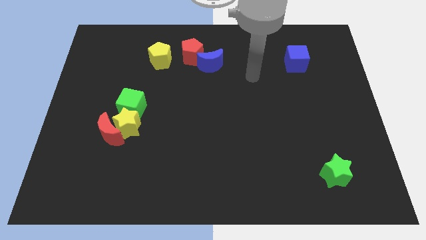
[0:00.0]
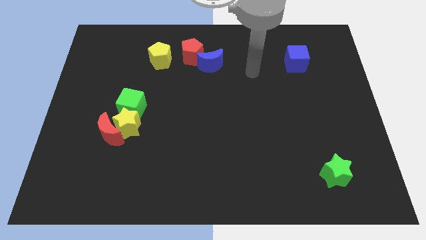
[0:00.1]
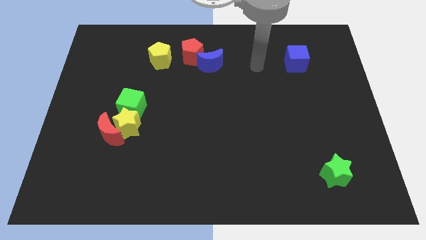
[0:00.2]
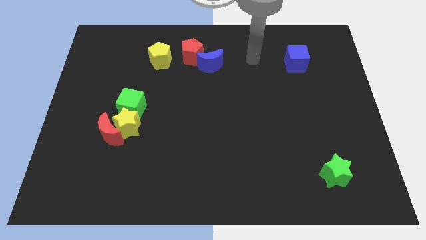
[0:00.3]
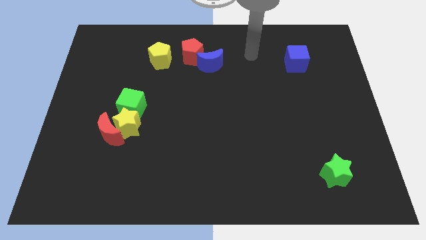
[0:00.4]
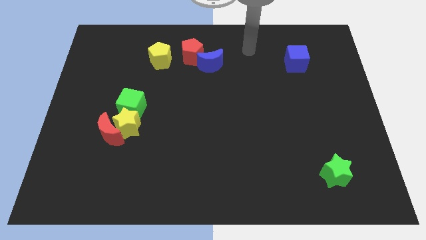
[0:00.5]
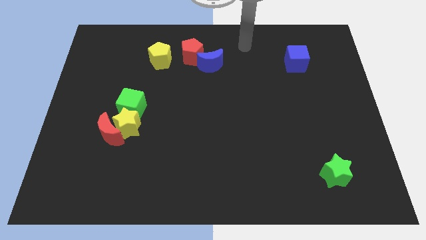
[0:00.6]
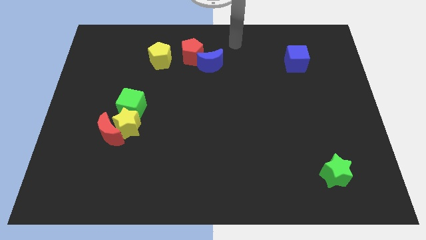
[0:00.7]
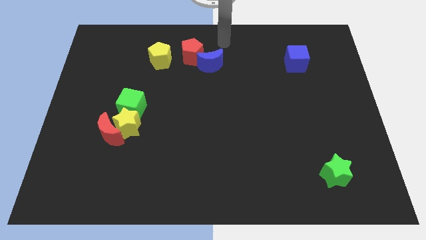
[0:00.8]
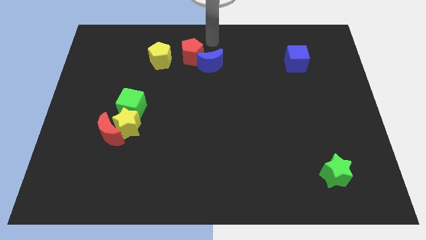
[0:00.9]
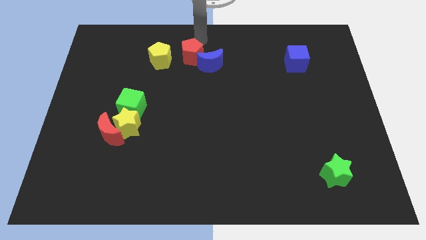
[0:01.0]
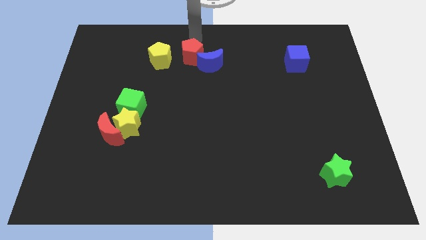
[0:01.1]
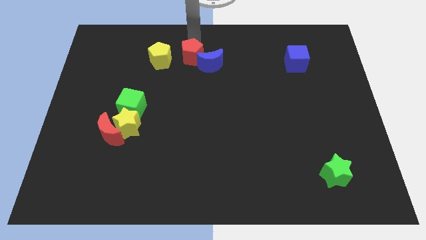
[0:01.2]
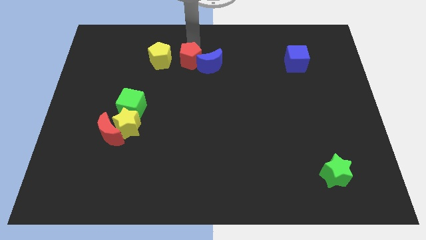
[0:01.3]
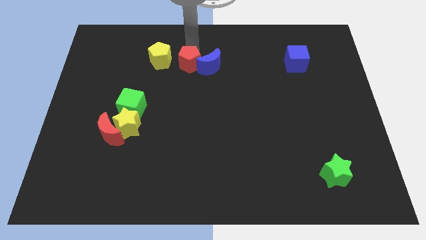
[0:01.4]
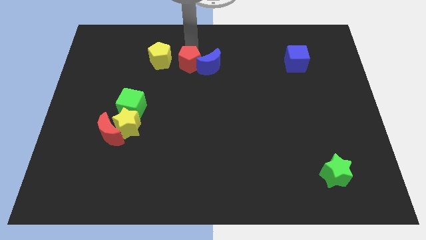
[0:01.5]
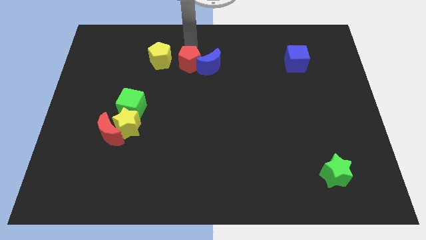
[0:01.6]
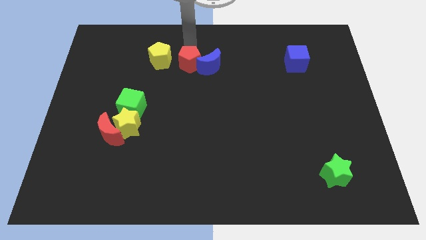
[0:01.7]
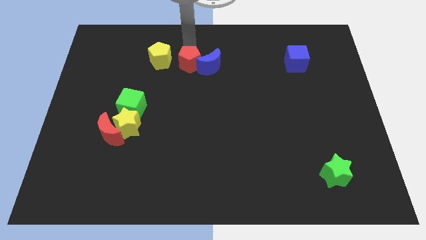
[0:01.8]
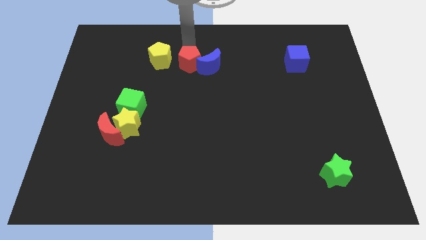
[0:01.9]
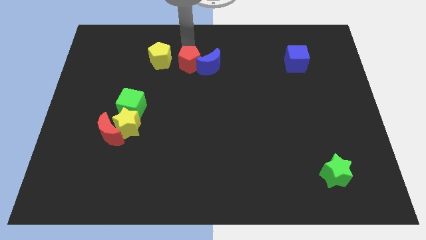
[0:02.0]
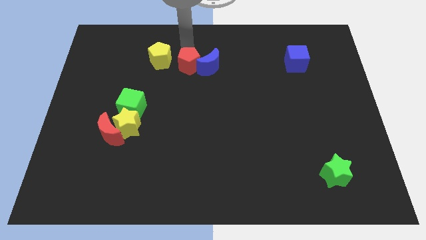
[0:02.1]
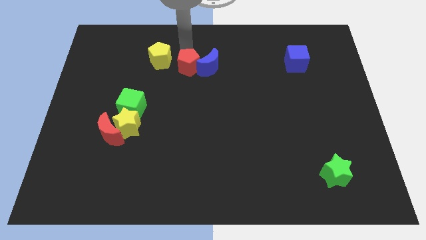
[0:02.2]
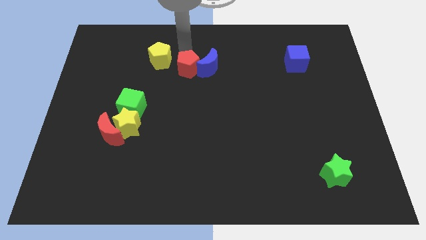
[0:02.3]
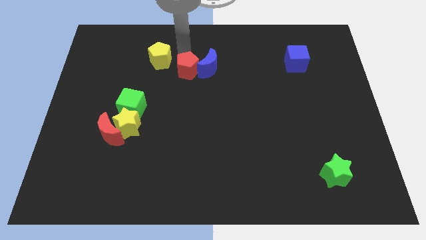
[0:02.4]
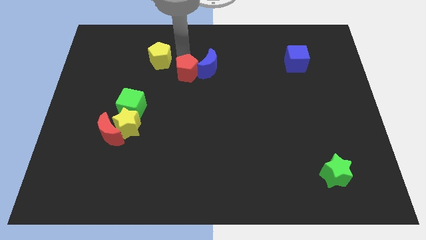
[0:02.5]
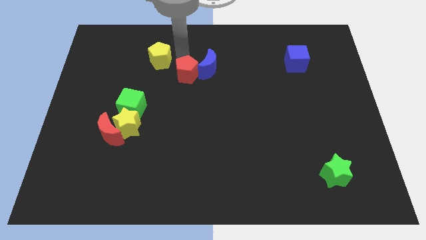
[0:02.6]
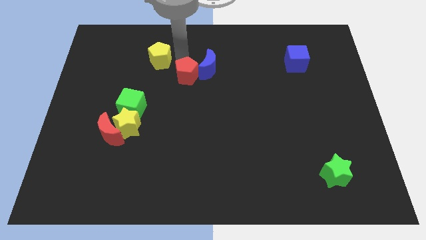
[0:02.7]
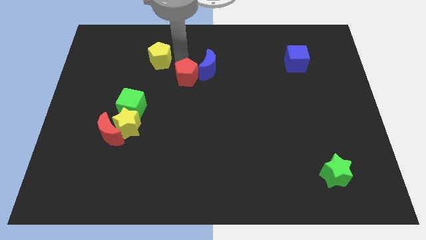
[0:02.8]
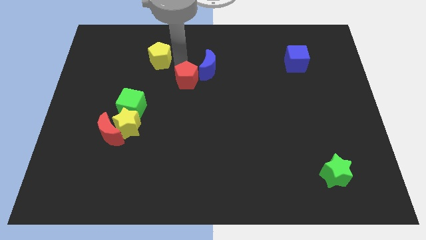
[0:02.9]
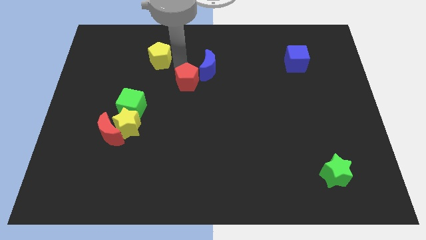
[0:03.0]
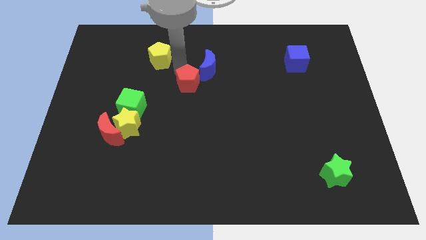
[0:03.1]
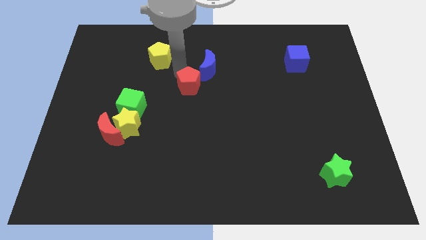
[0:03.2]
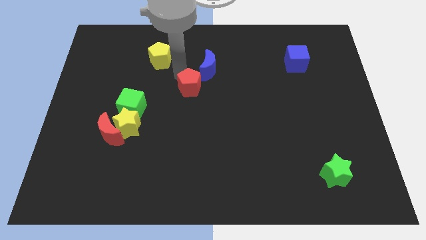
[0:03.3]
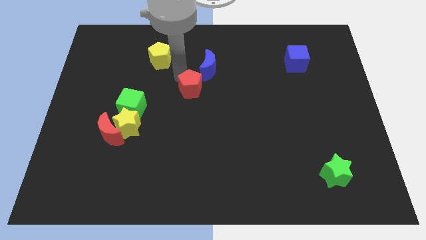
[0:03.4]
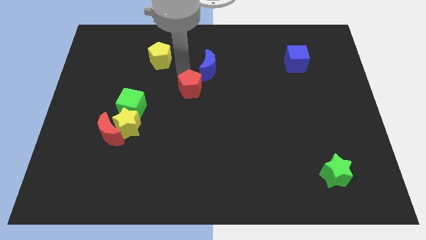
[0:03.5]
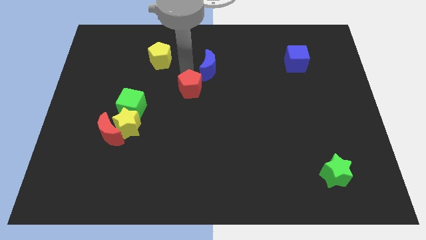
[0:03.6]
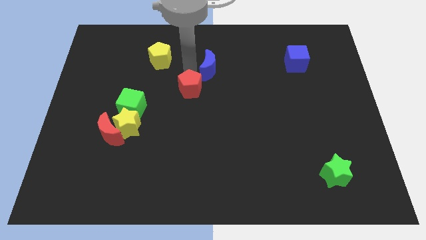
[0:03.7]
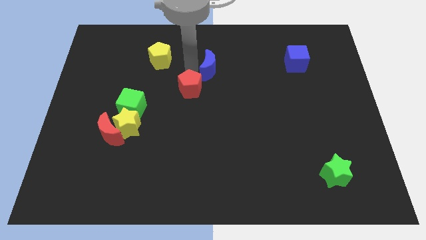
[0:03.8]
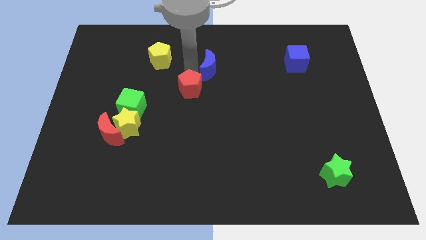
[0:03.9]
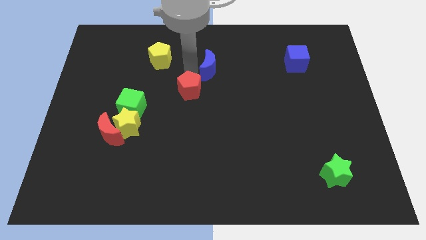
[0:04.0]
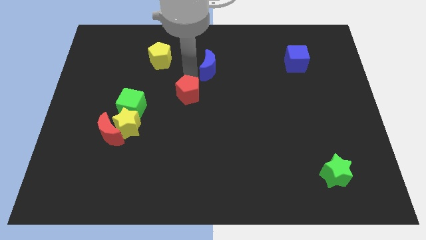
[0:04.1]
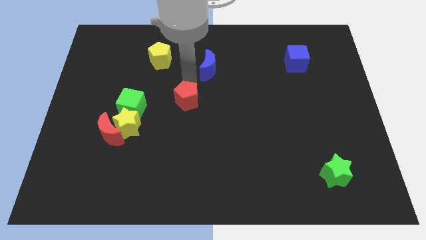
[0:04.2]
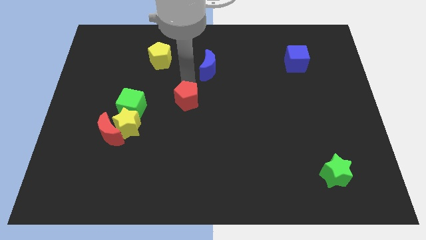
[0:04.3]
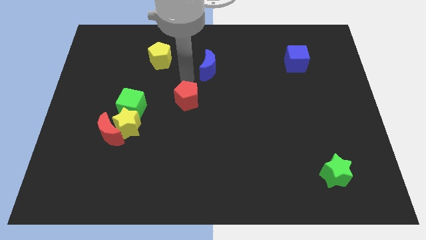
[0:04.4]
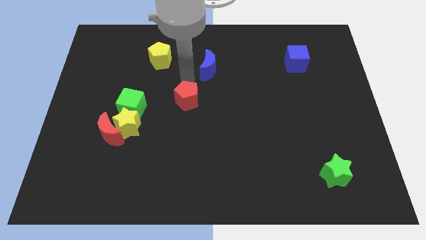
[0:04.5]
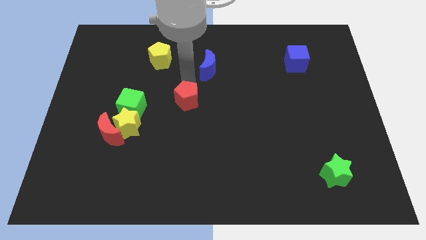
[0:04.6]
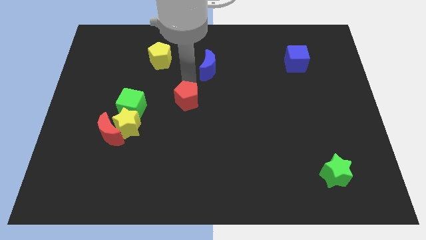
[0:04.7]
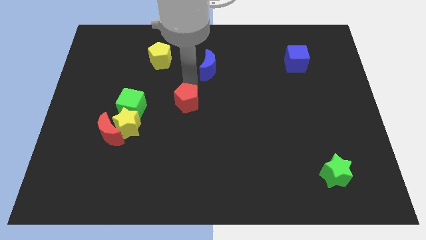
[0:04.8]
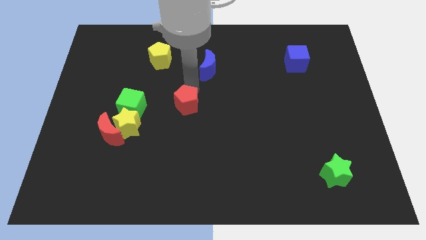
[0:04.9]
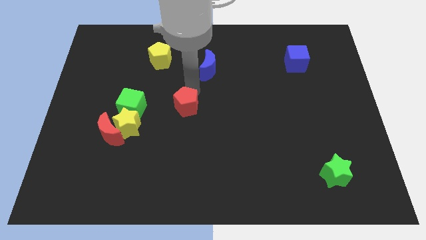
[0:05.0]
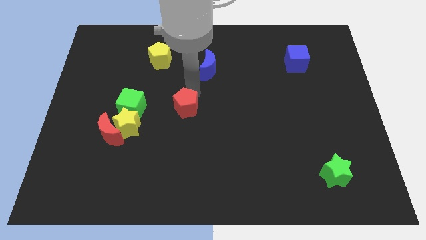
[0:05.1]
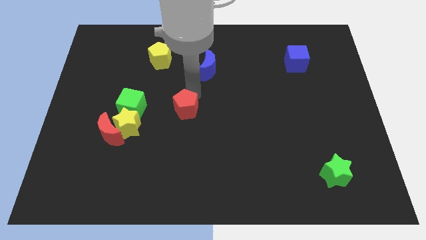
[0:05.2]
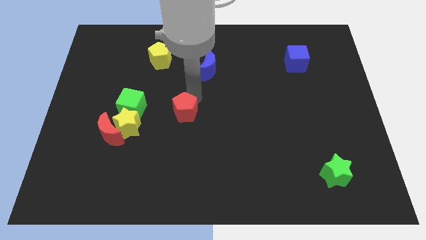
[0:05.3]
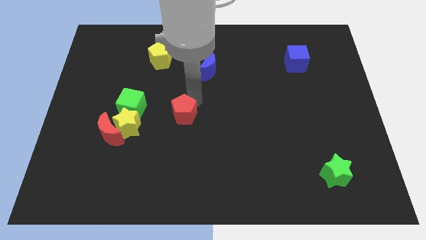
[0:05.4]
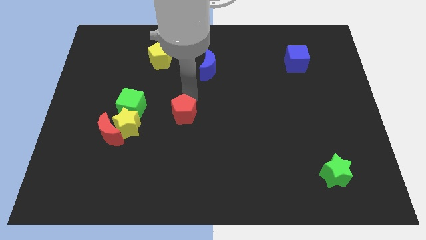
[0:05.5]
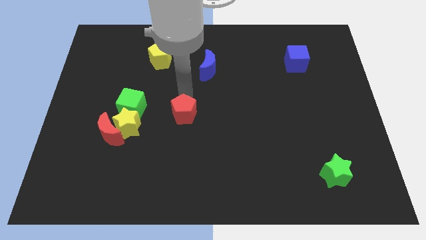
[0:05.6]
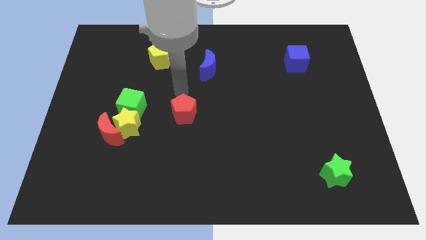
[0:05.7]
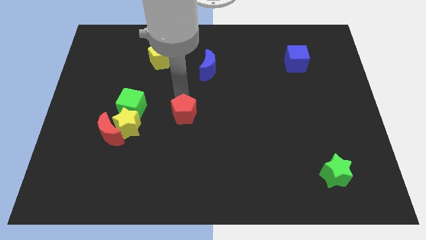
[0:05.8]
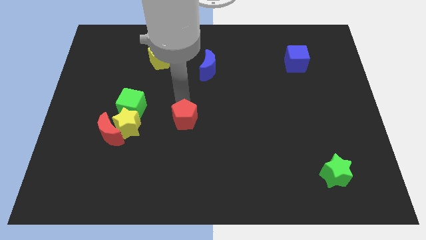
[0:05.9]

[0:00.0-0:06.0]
move the red pentagon down

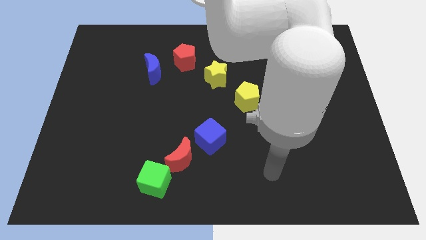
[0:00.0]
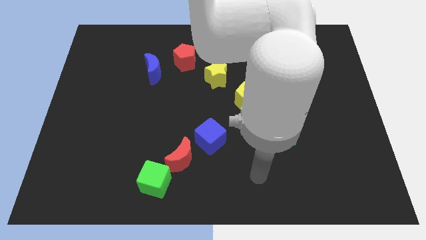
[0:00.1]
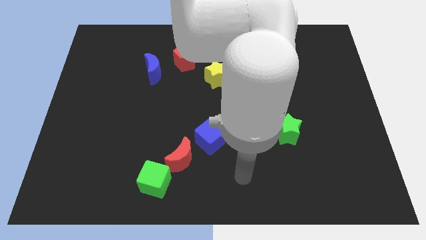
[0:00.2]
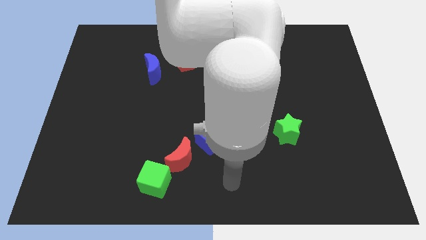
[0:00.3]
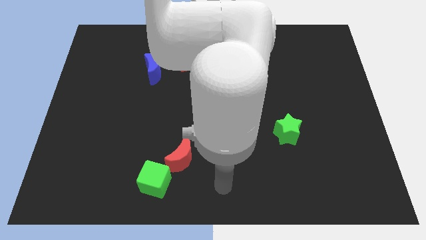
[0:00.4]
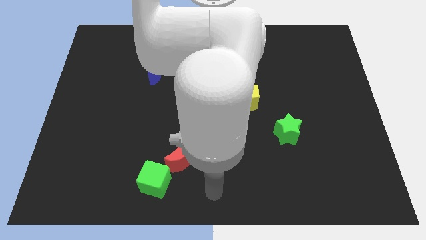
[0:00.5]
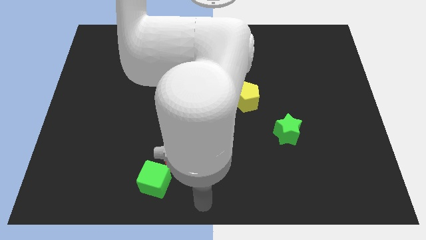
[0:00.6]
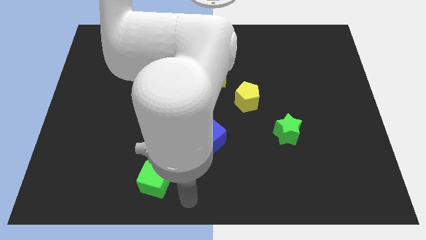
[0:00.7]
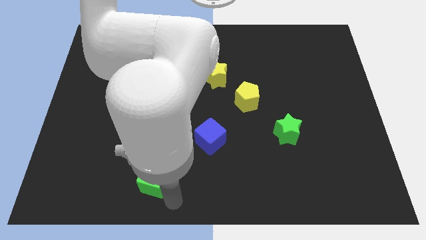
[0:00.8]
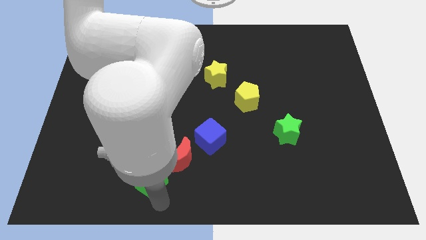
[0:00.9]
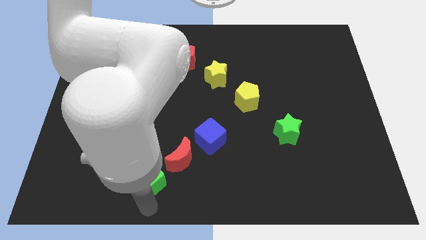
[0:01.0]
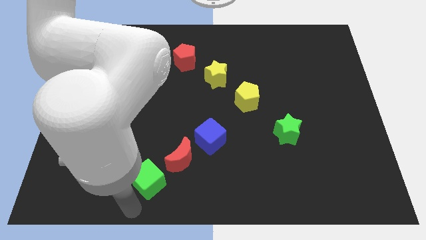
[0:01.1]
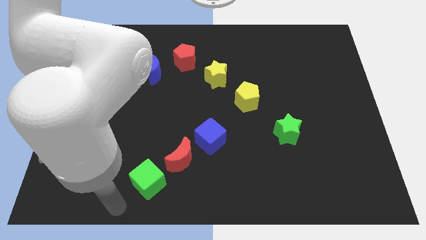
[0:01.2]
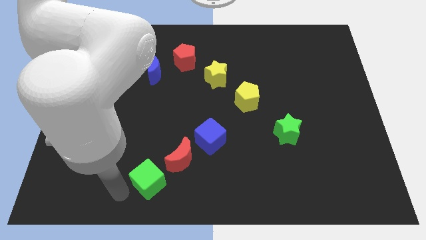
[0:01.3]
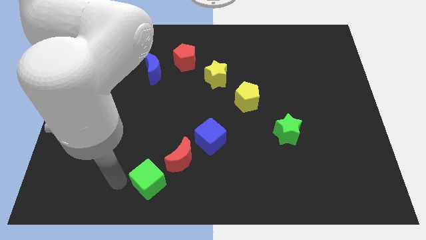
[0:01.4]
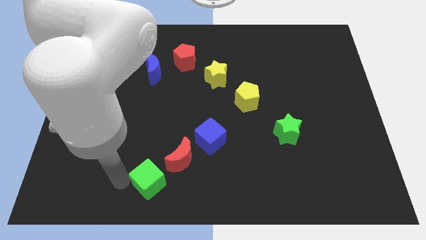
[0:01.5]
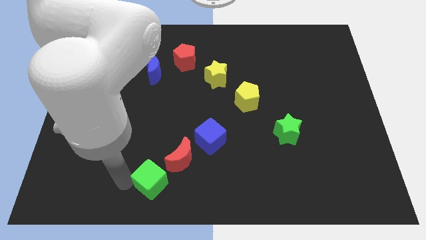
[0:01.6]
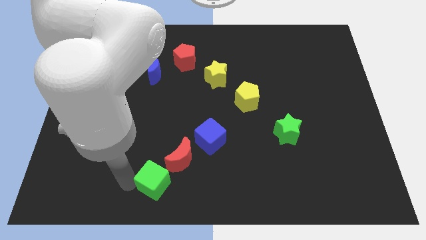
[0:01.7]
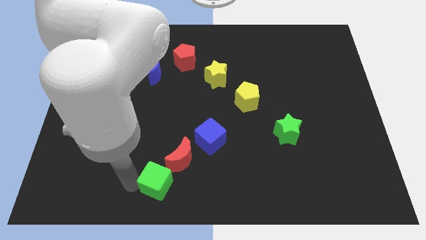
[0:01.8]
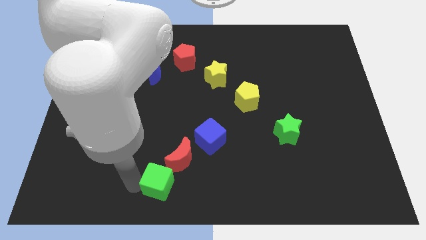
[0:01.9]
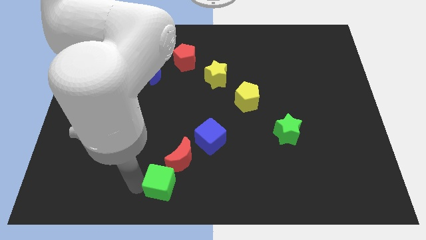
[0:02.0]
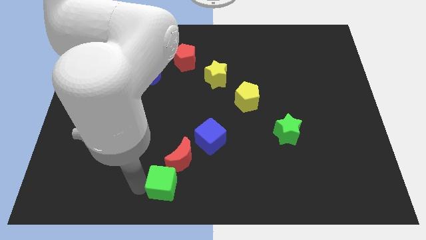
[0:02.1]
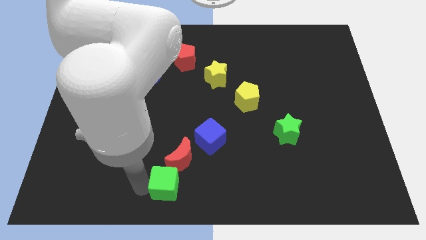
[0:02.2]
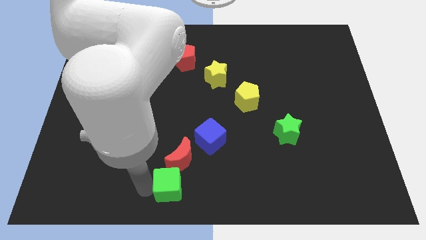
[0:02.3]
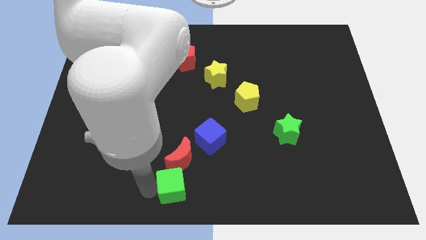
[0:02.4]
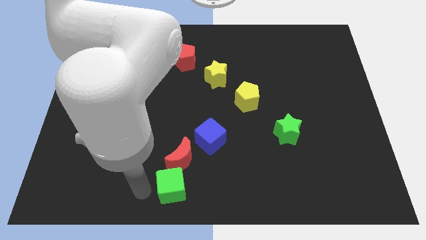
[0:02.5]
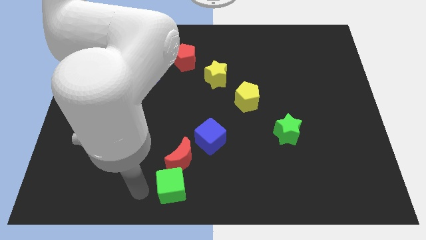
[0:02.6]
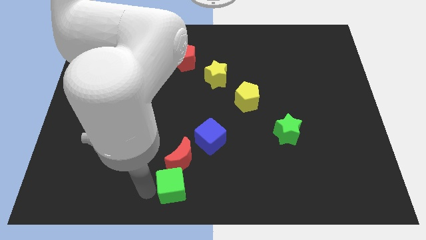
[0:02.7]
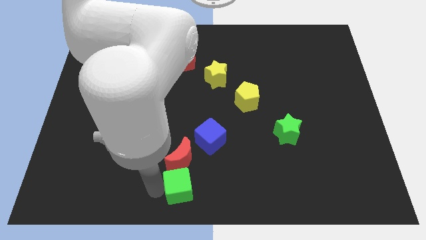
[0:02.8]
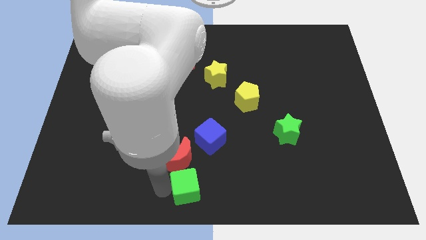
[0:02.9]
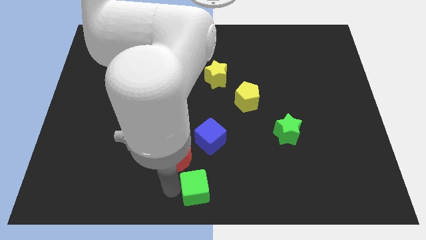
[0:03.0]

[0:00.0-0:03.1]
slide the green cube slightly right
